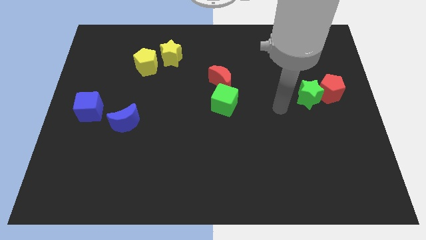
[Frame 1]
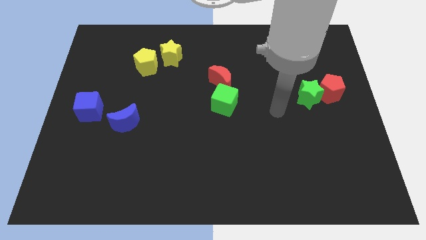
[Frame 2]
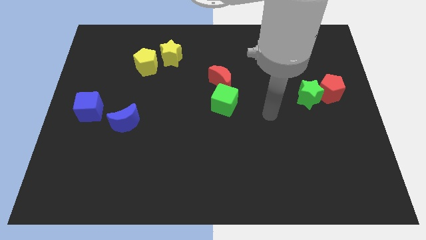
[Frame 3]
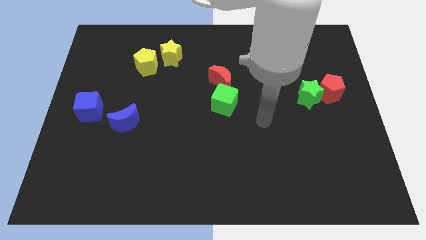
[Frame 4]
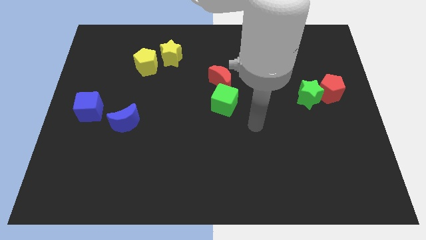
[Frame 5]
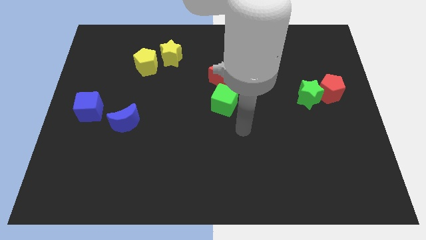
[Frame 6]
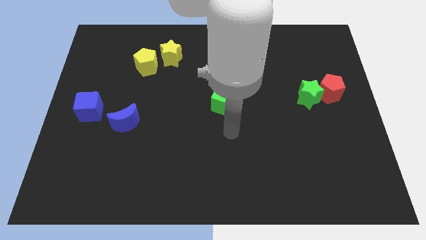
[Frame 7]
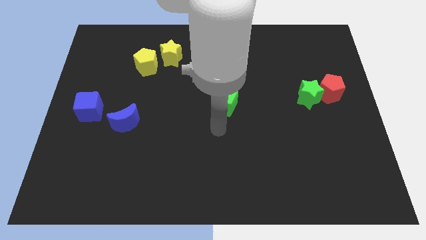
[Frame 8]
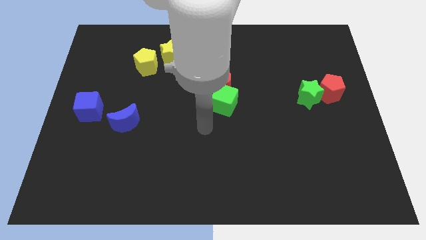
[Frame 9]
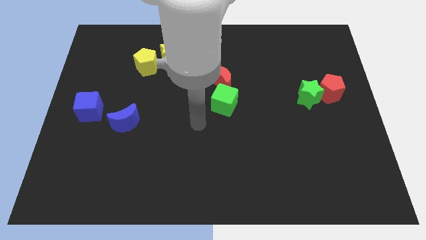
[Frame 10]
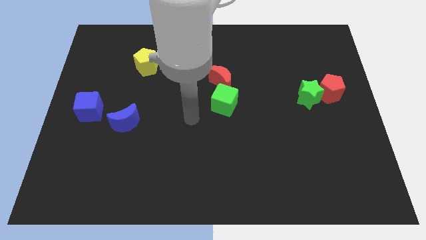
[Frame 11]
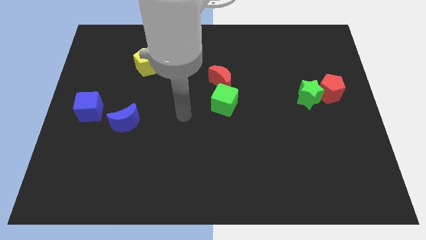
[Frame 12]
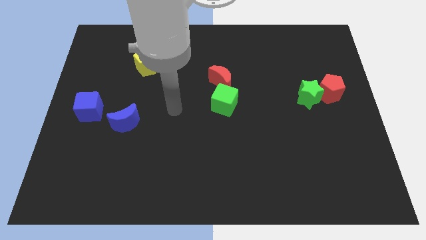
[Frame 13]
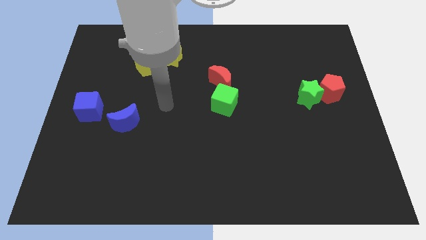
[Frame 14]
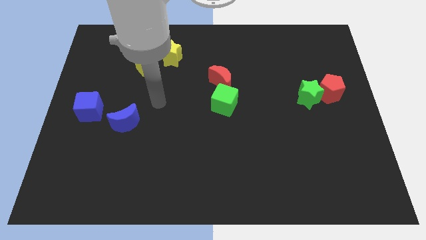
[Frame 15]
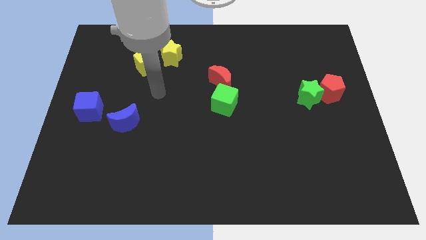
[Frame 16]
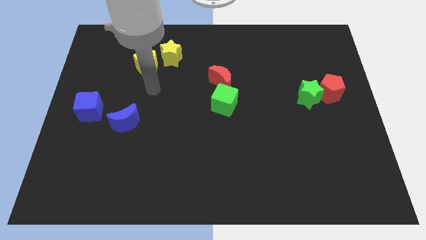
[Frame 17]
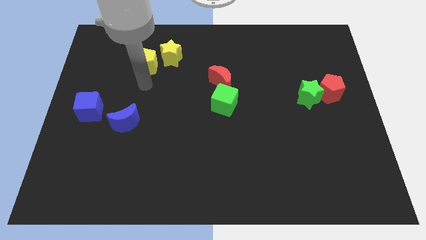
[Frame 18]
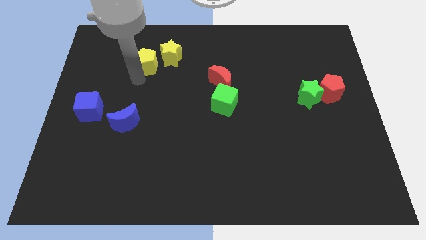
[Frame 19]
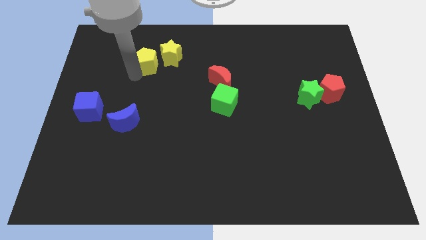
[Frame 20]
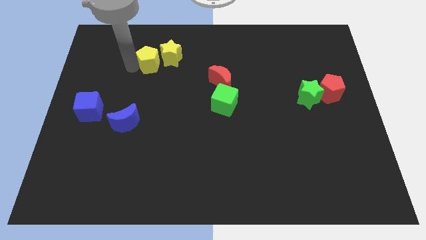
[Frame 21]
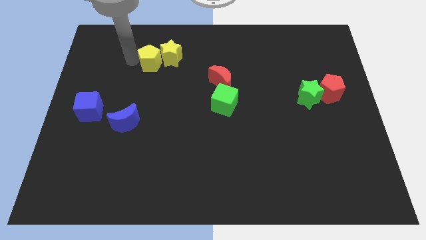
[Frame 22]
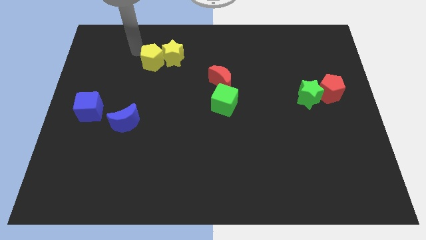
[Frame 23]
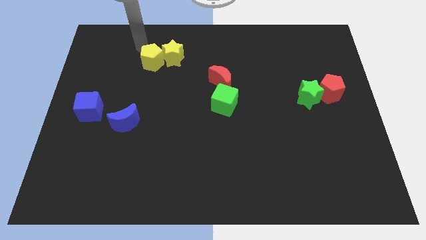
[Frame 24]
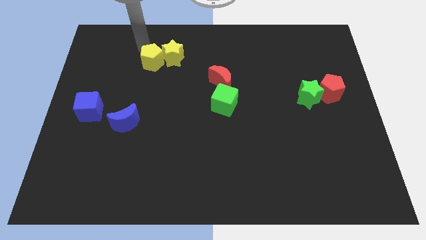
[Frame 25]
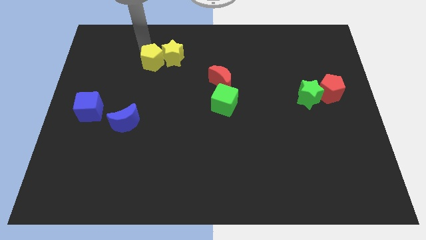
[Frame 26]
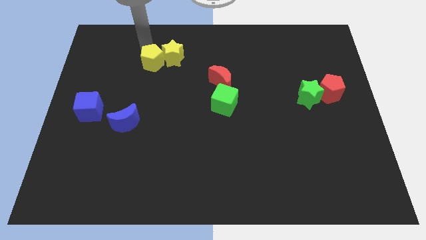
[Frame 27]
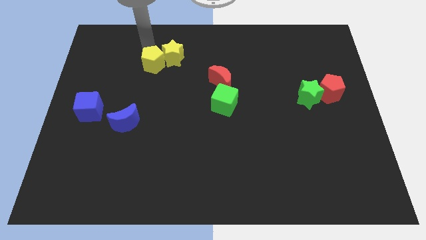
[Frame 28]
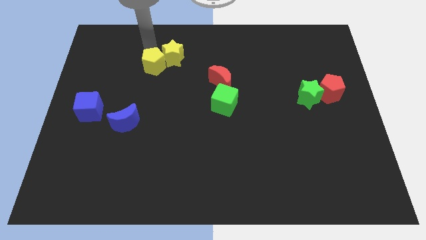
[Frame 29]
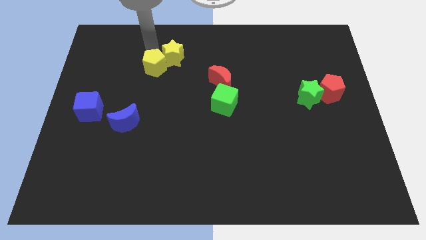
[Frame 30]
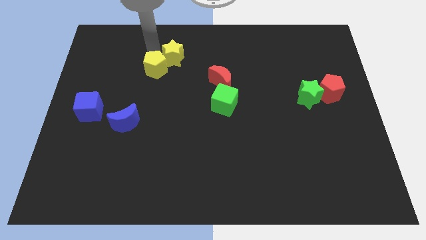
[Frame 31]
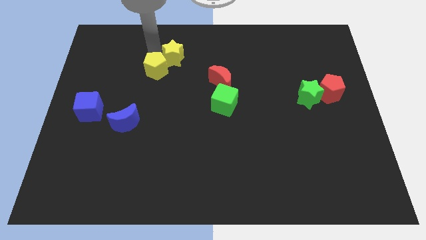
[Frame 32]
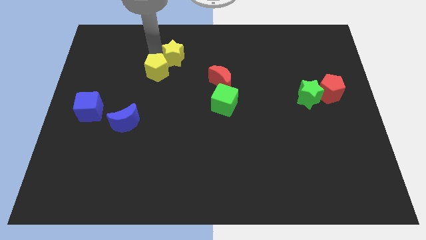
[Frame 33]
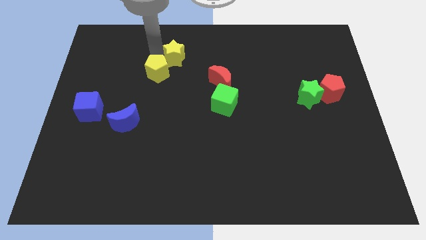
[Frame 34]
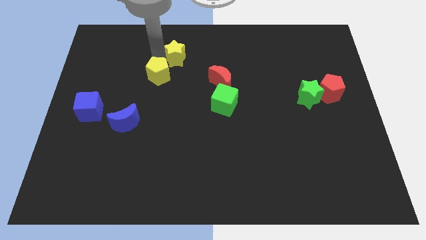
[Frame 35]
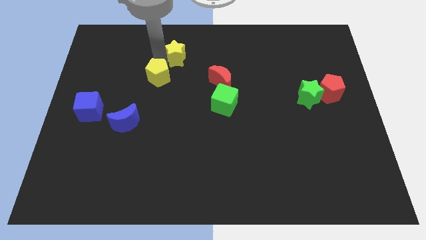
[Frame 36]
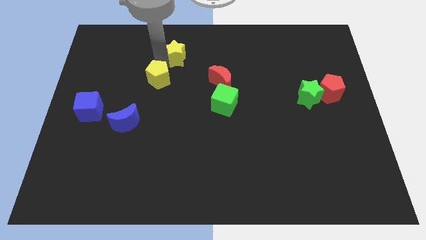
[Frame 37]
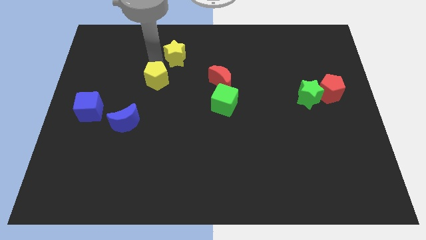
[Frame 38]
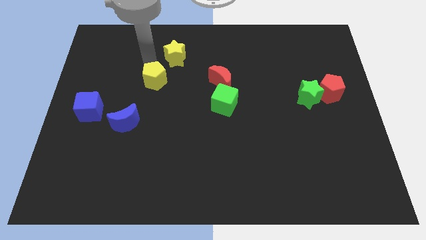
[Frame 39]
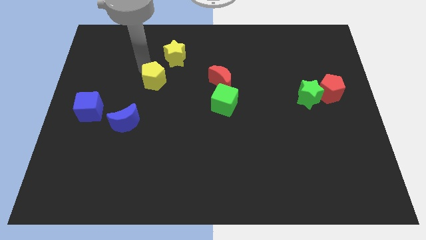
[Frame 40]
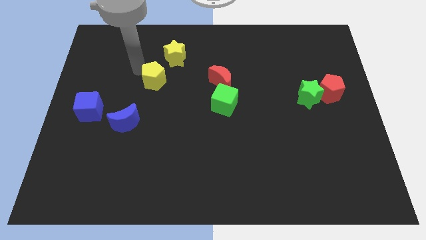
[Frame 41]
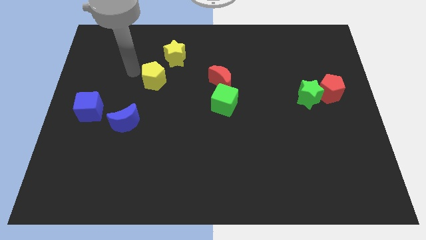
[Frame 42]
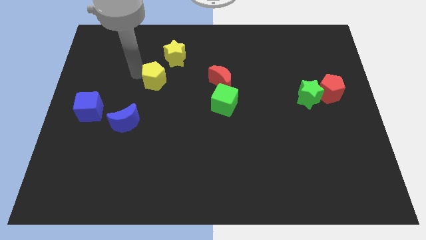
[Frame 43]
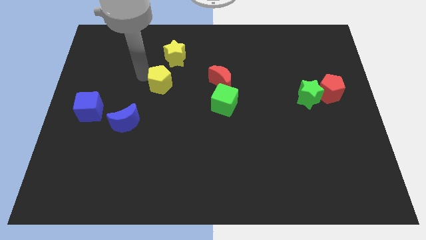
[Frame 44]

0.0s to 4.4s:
slide the yellow pentagon downwards and to the right diagonally a bit

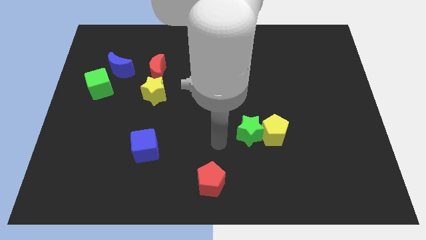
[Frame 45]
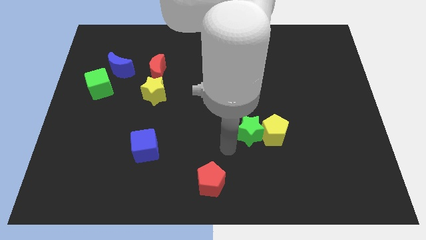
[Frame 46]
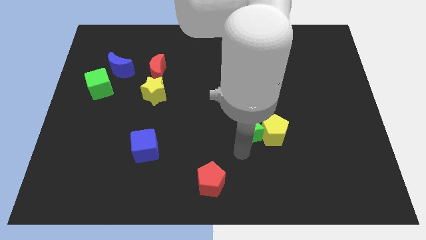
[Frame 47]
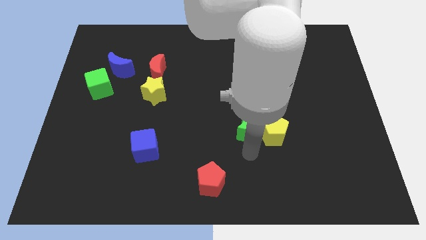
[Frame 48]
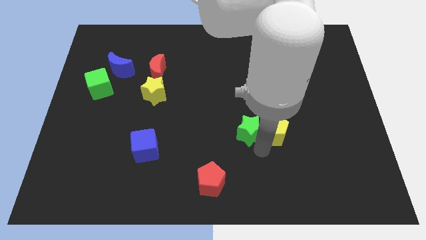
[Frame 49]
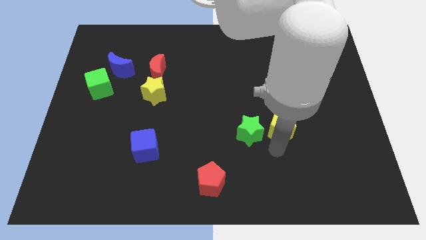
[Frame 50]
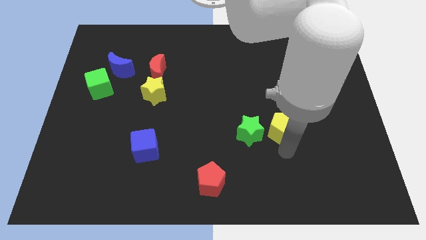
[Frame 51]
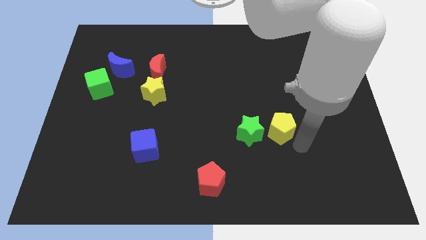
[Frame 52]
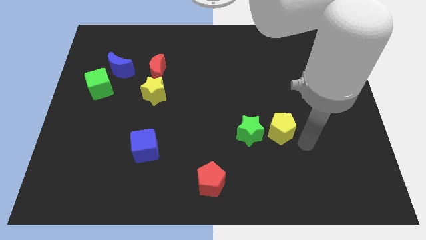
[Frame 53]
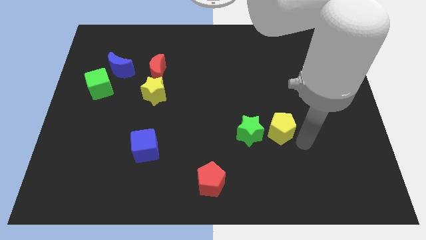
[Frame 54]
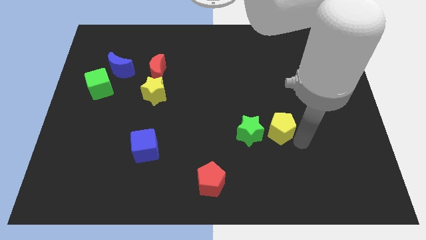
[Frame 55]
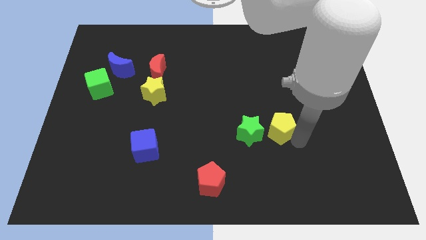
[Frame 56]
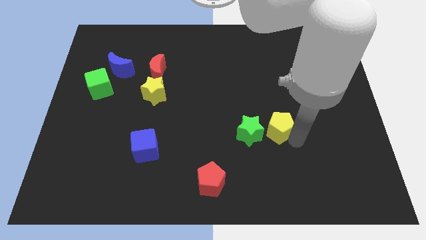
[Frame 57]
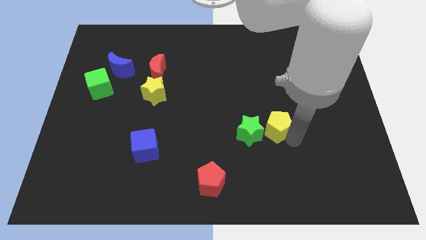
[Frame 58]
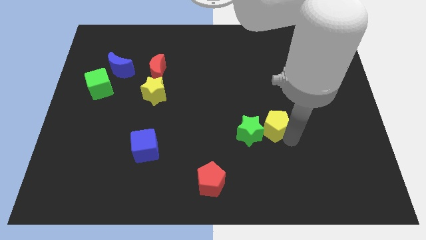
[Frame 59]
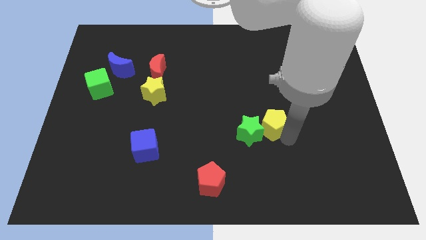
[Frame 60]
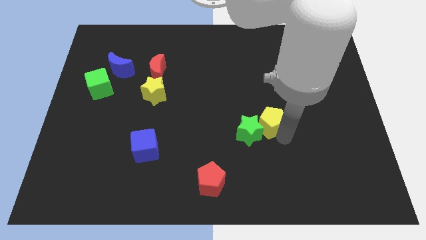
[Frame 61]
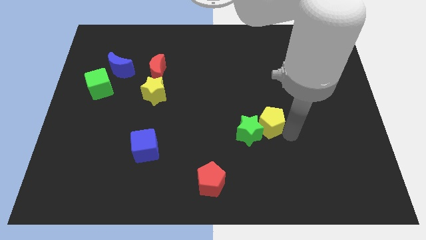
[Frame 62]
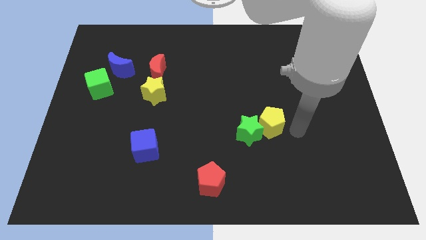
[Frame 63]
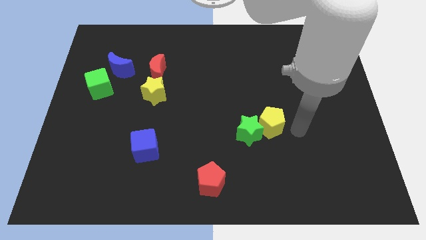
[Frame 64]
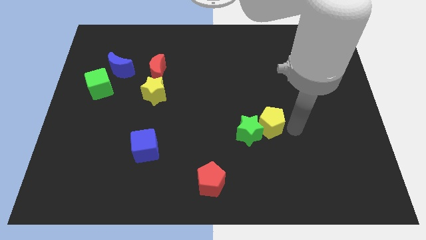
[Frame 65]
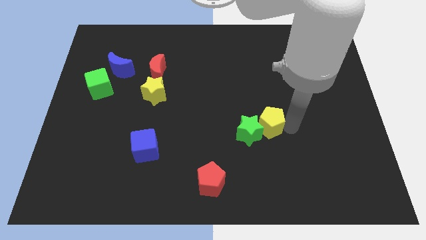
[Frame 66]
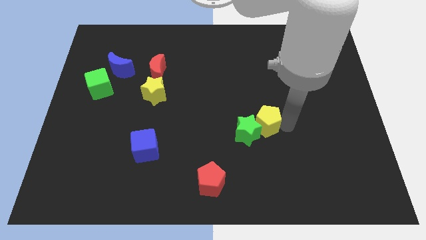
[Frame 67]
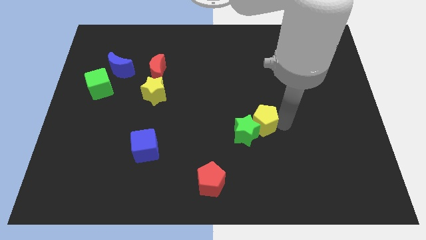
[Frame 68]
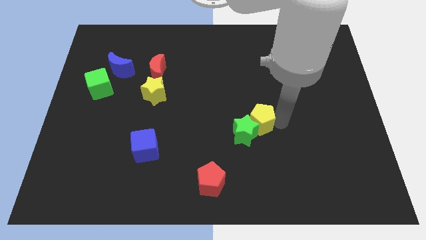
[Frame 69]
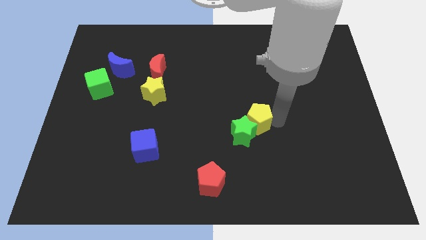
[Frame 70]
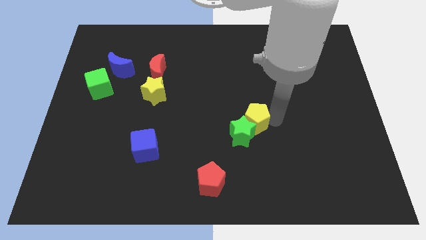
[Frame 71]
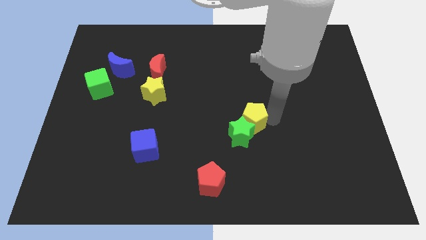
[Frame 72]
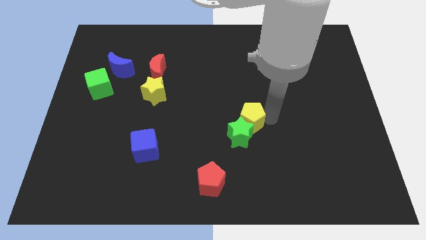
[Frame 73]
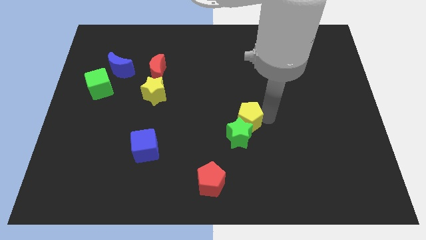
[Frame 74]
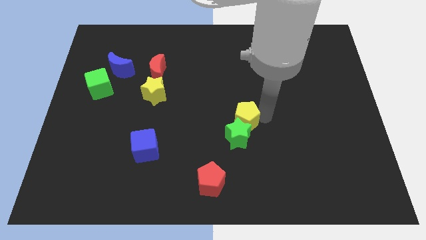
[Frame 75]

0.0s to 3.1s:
slide the yellow pentagon somewhat upwards and then to the left

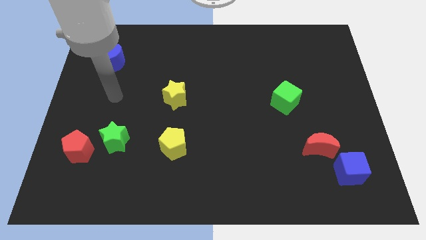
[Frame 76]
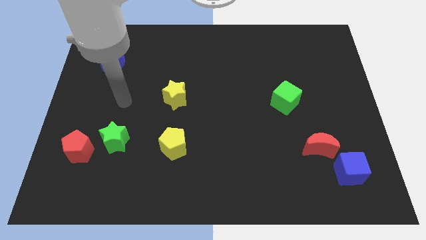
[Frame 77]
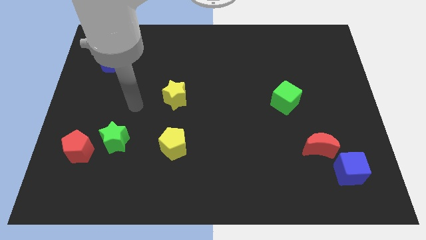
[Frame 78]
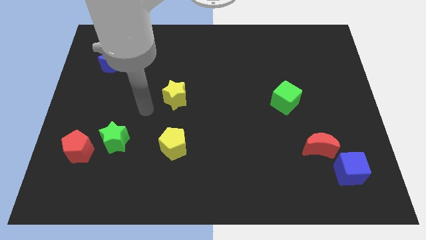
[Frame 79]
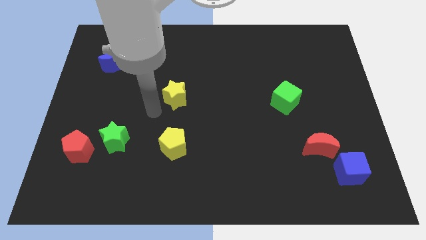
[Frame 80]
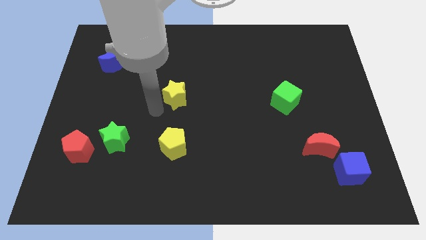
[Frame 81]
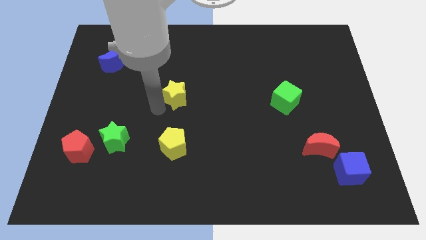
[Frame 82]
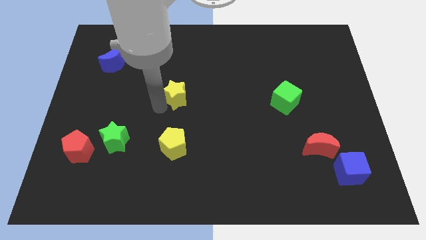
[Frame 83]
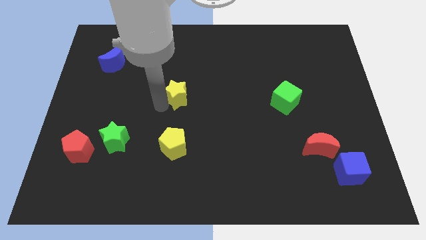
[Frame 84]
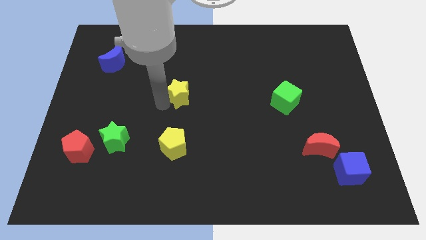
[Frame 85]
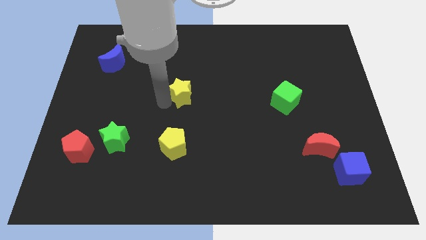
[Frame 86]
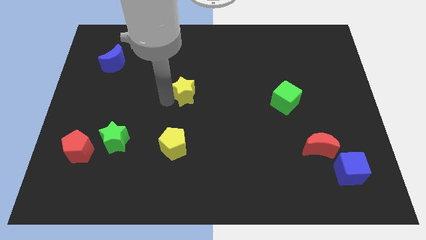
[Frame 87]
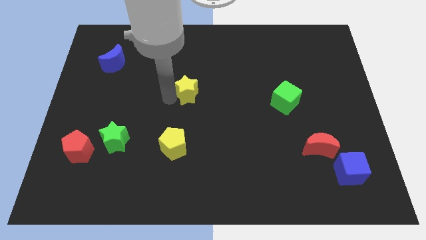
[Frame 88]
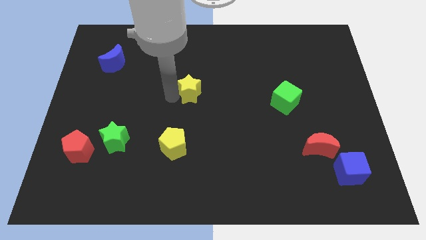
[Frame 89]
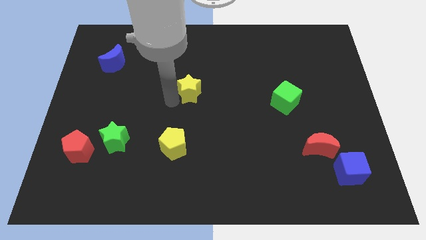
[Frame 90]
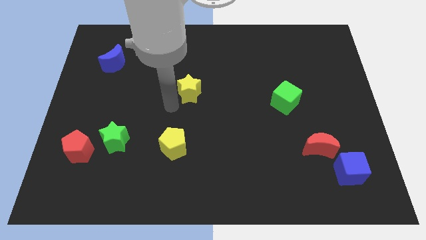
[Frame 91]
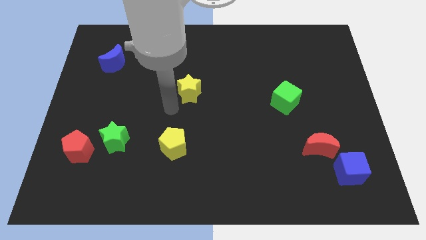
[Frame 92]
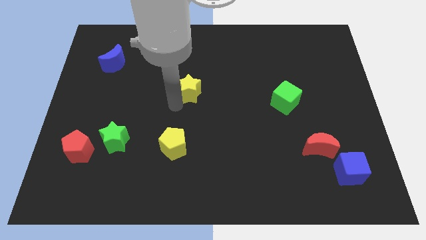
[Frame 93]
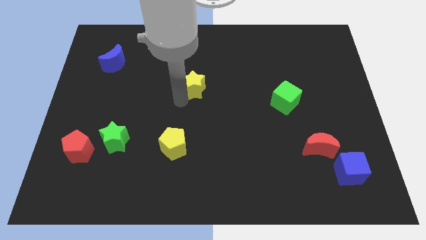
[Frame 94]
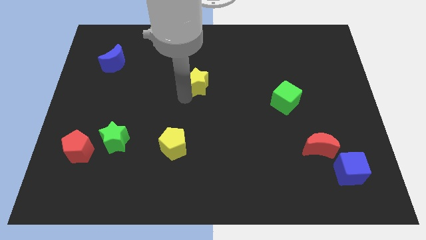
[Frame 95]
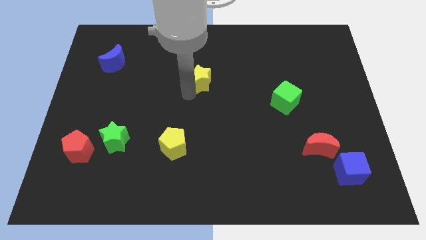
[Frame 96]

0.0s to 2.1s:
slide the yellow star up and to the right slightly
